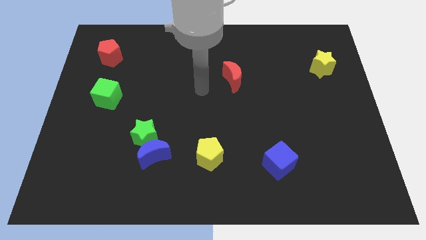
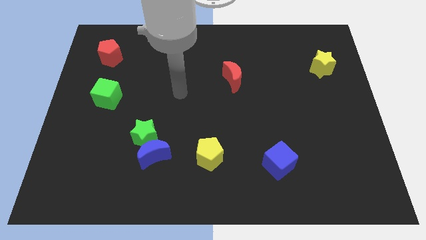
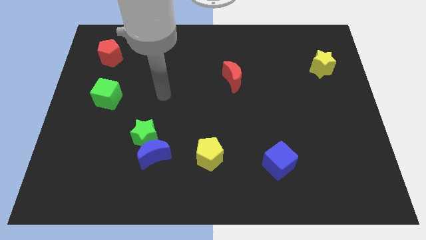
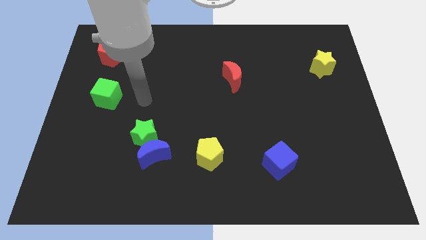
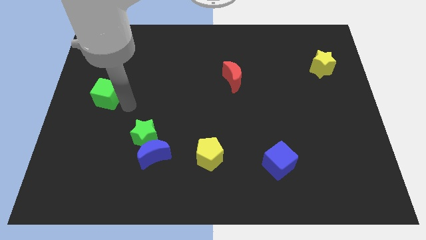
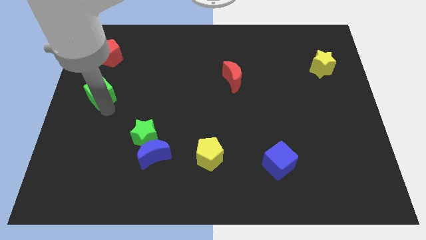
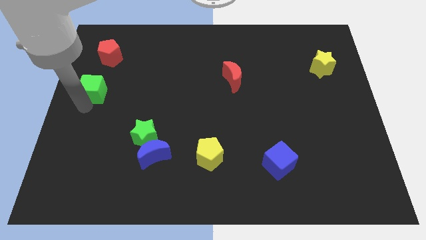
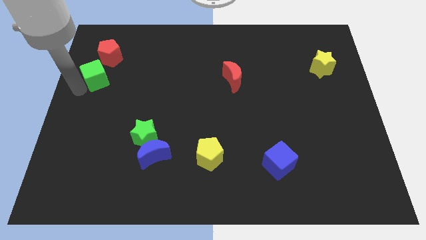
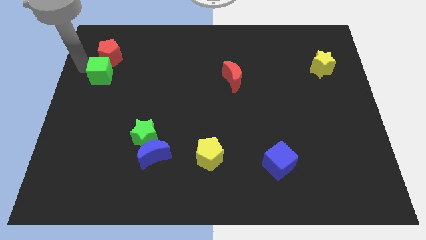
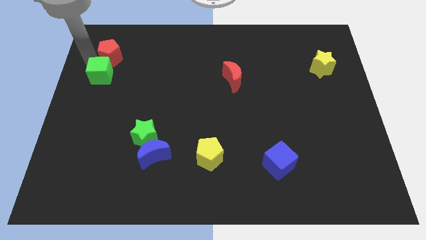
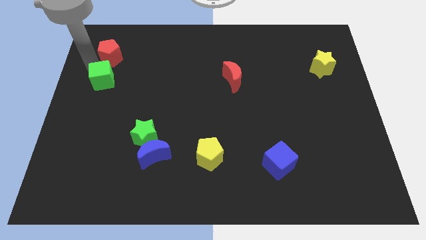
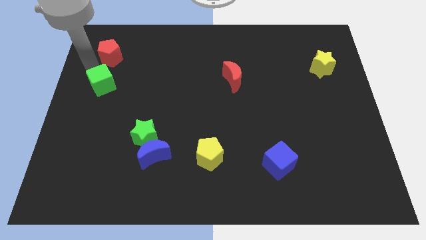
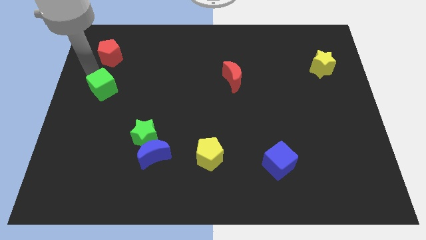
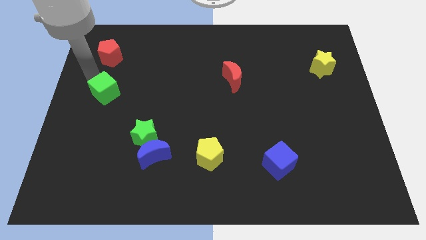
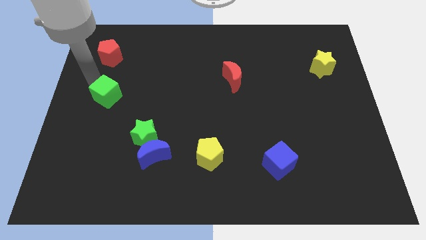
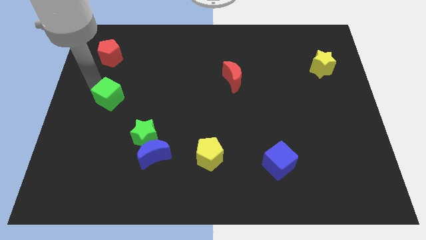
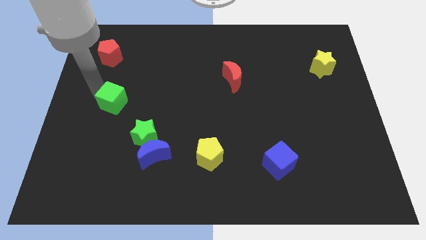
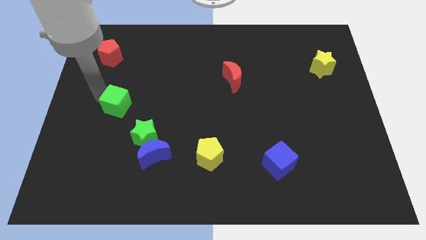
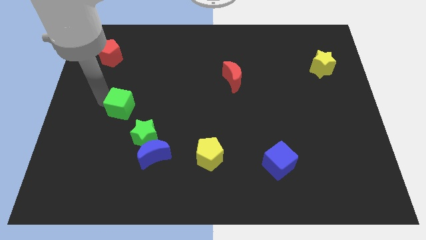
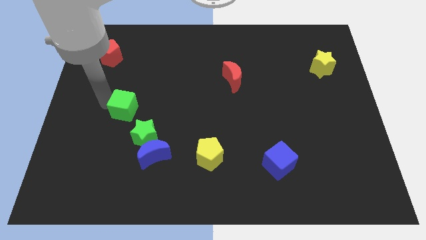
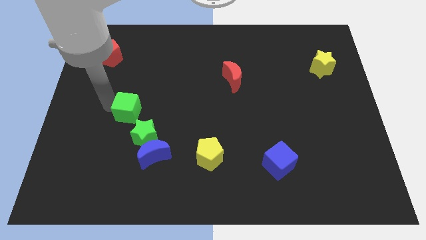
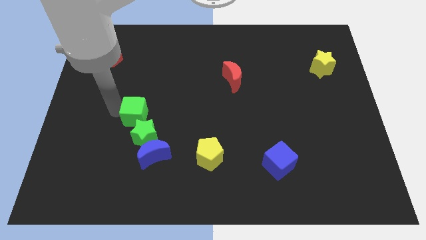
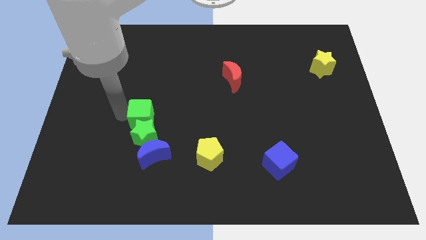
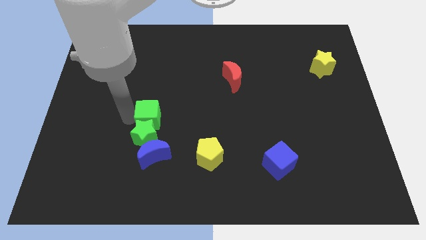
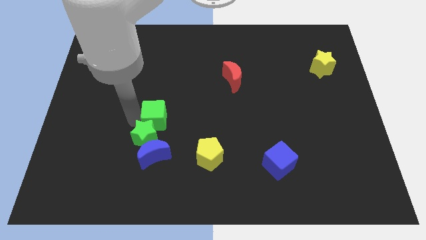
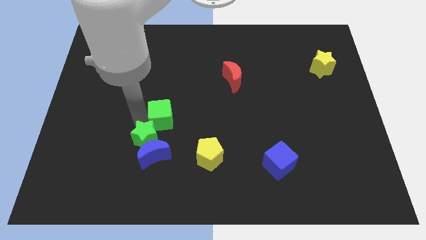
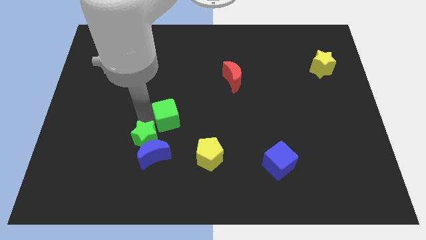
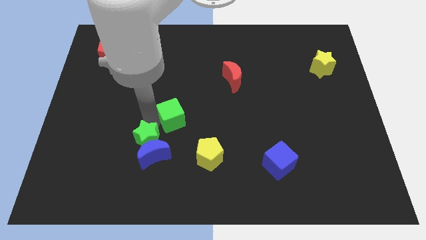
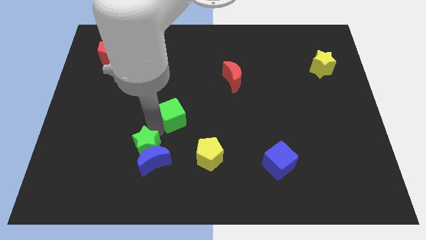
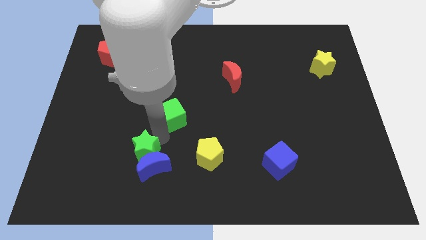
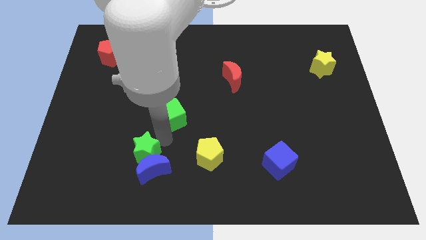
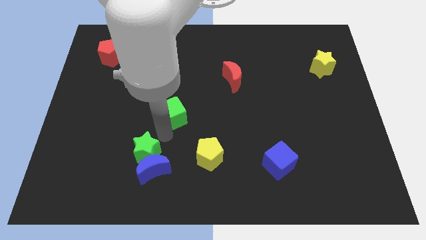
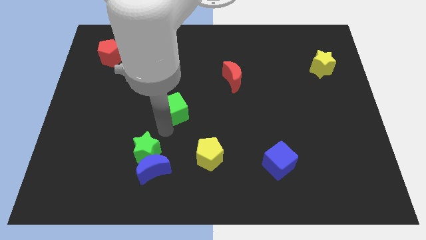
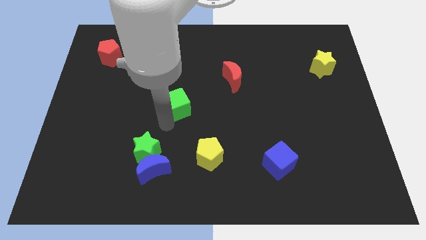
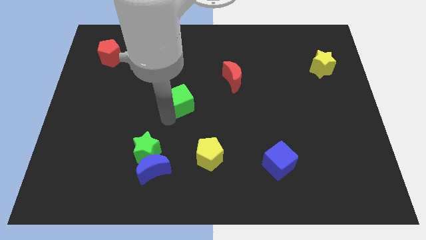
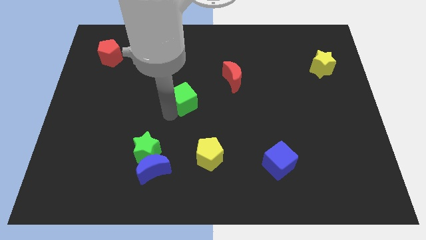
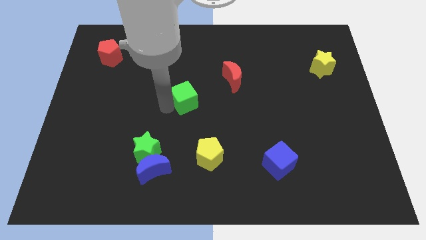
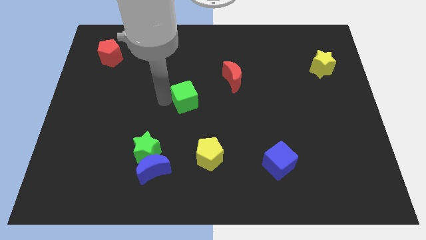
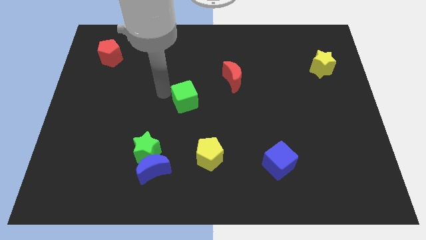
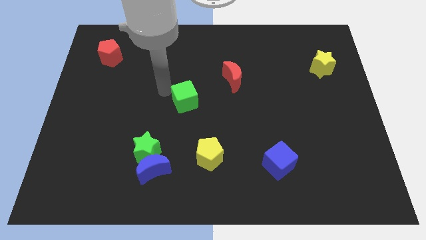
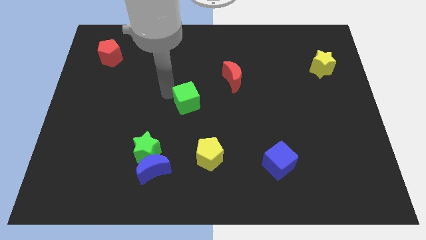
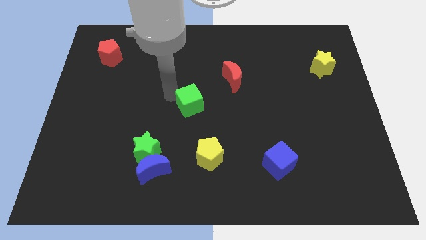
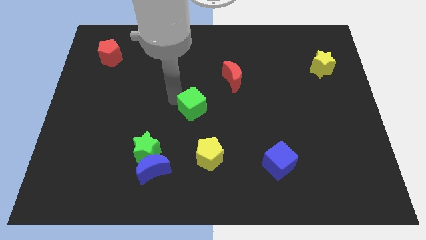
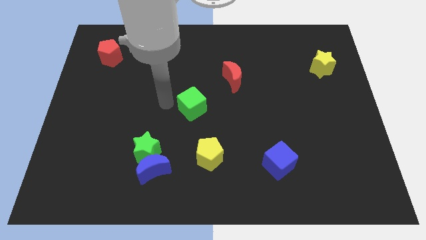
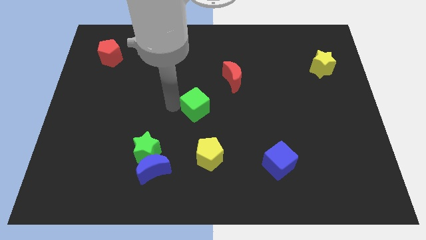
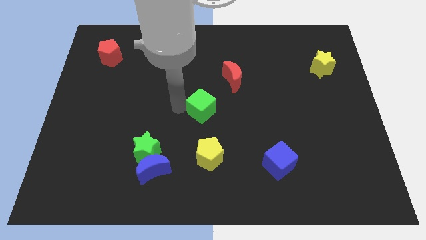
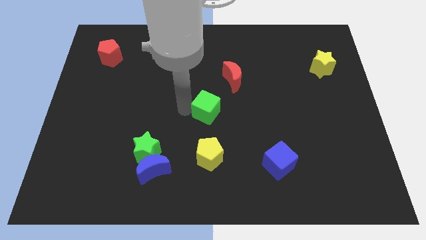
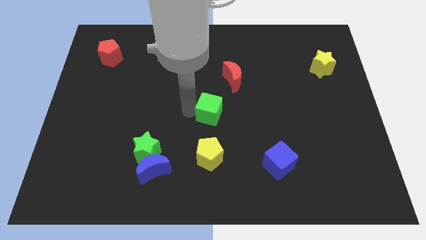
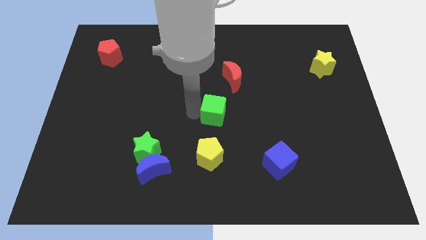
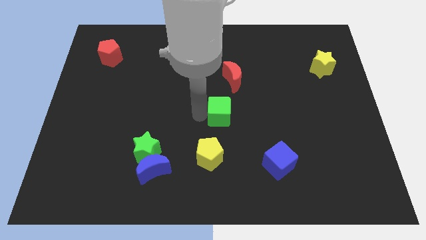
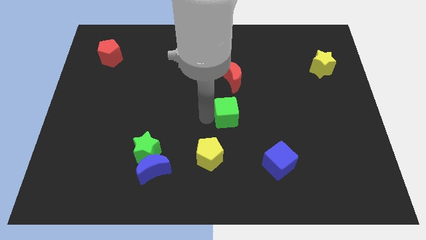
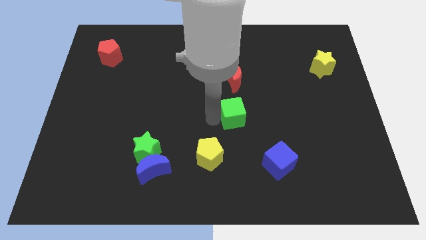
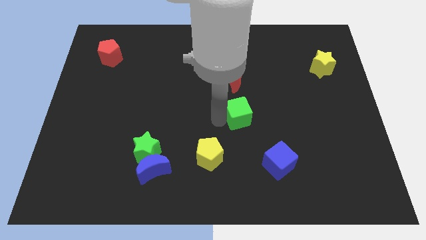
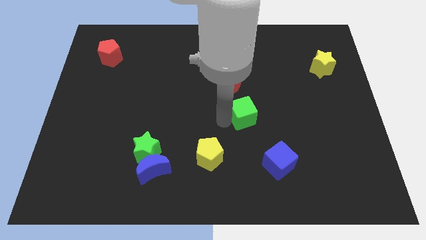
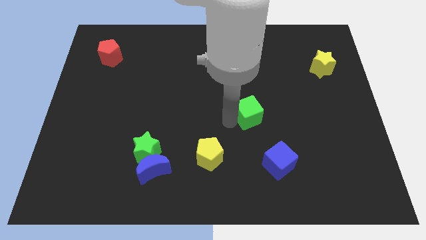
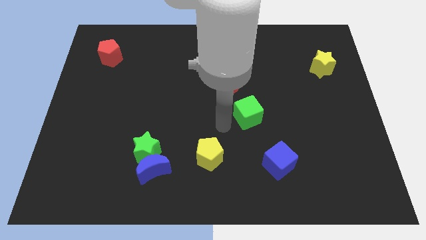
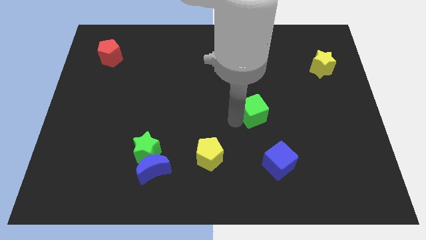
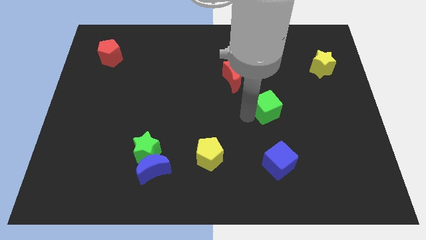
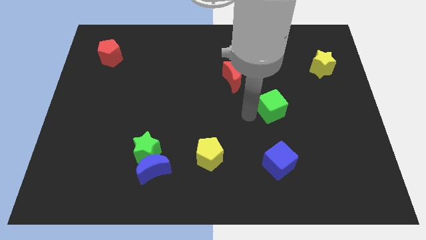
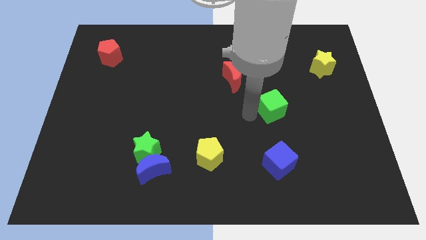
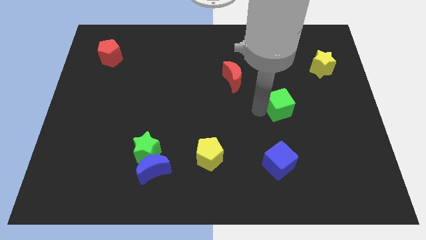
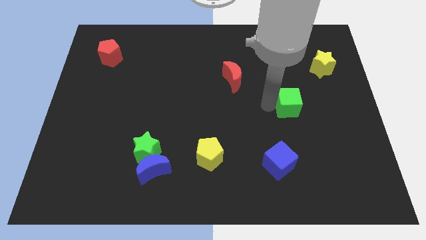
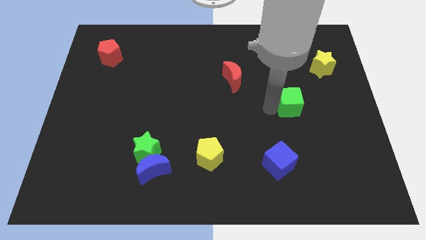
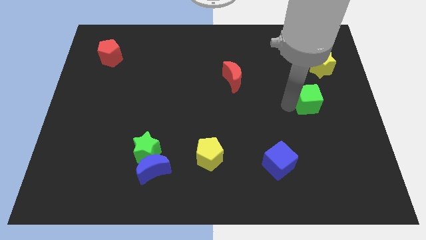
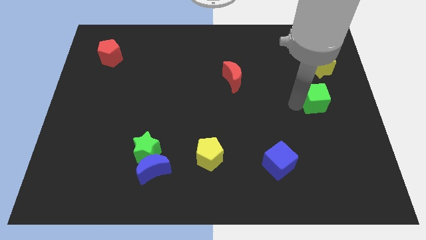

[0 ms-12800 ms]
slide the green cube to the bottom side of the yellow star

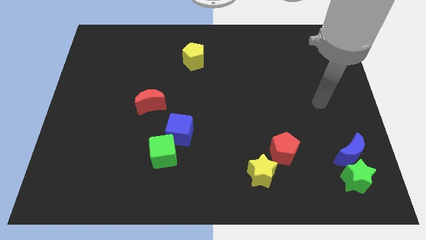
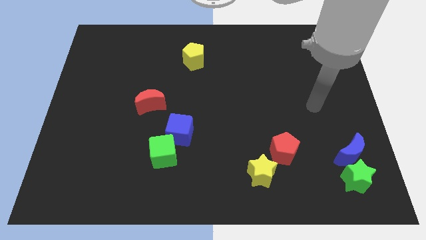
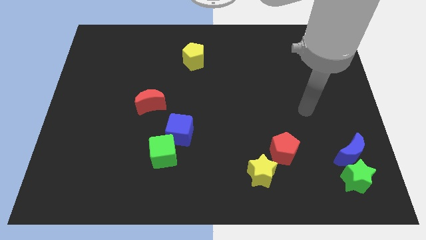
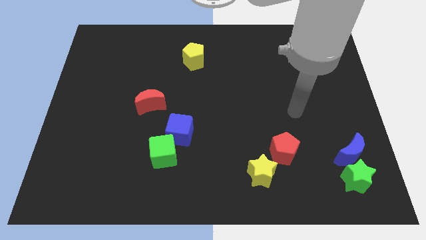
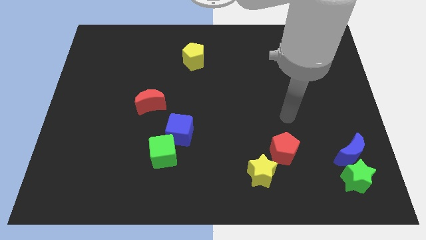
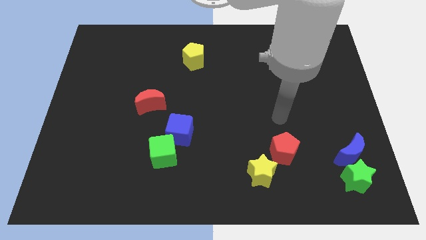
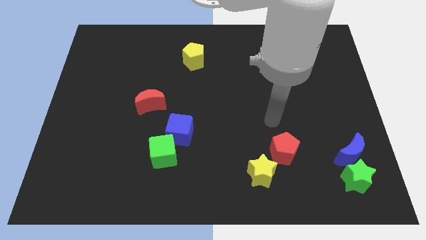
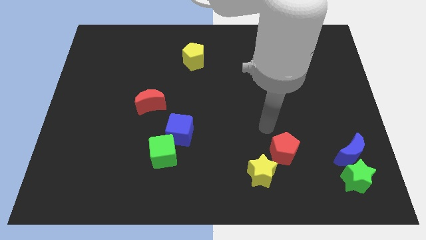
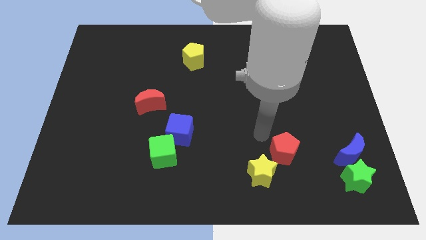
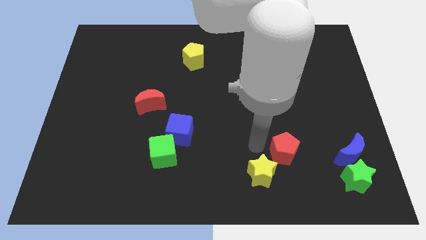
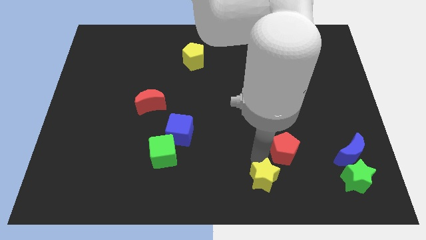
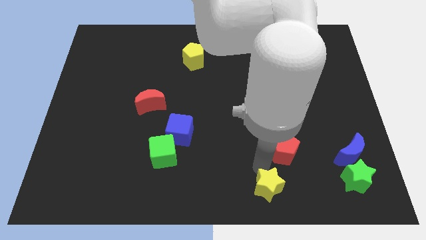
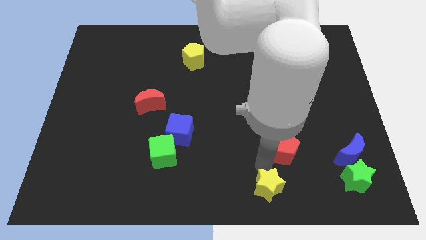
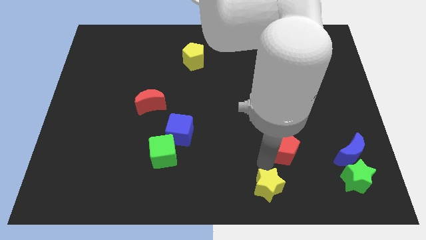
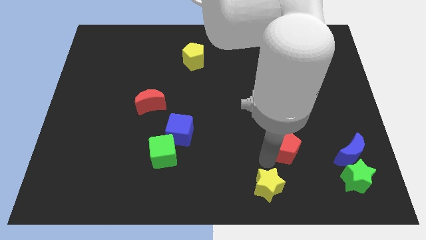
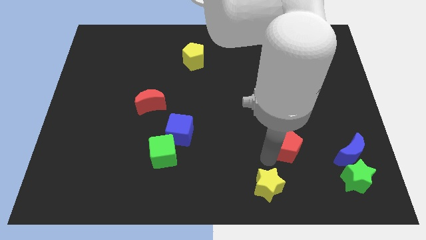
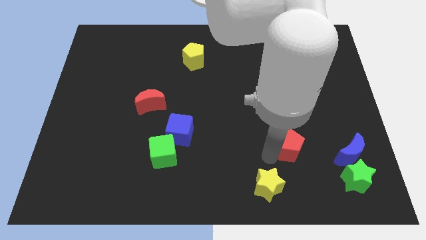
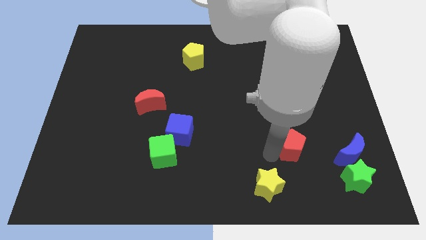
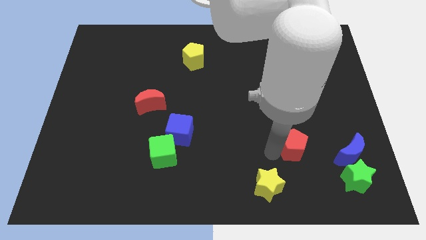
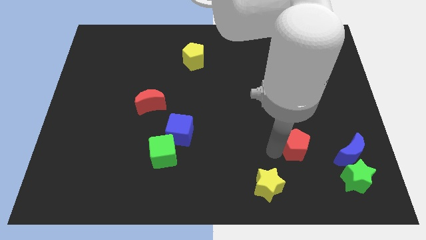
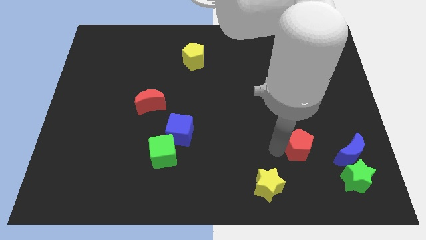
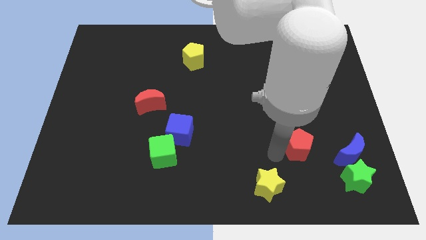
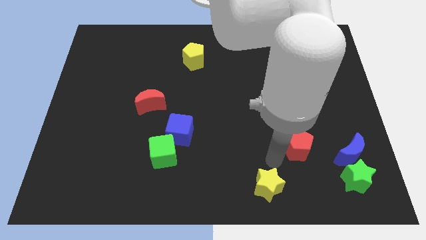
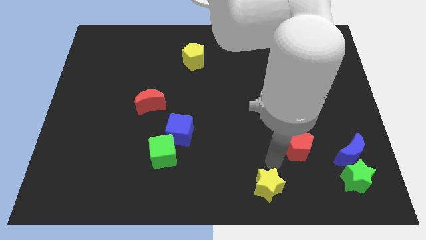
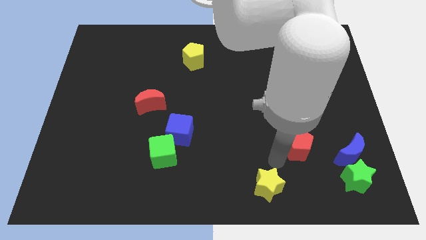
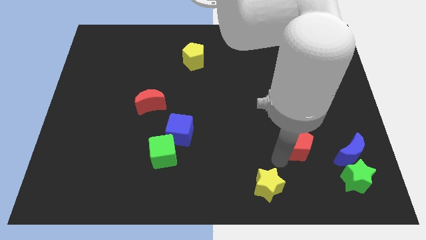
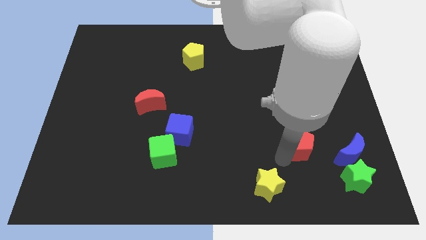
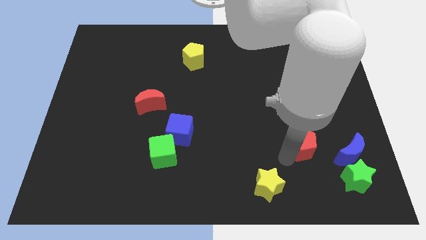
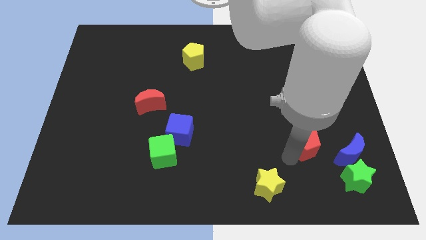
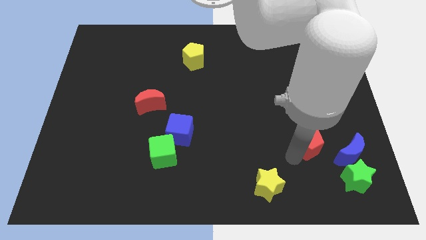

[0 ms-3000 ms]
put the red pentagon diagonally up and to the left of the blue moon
